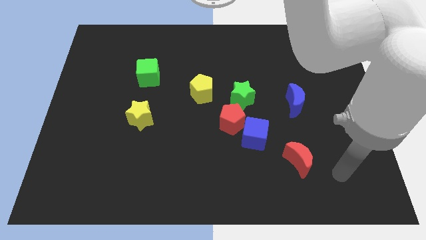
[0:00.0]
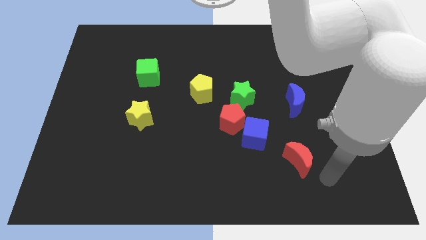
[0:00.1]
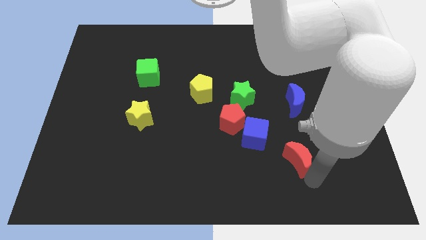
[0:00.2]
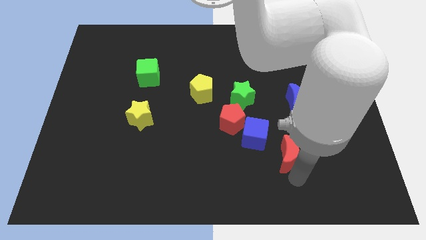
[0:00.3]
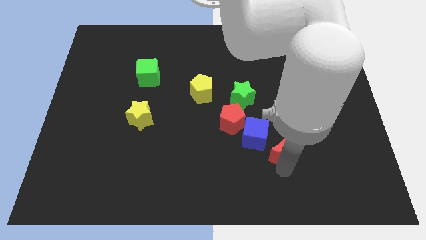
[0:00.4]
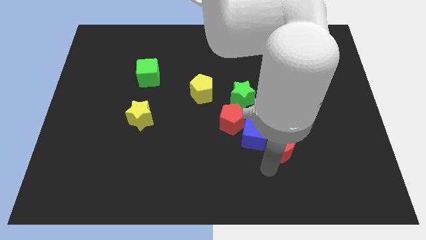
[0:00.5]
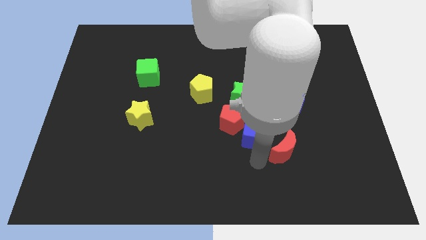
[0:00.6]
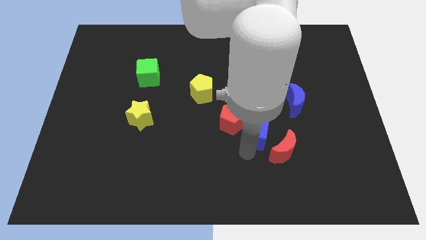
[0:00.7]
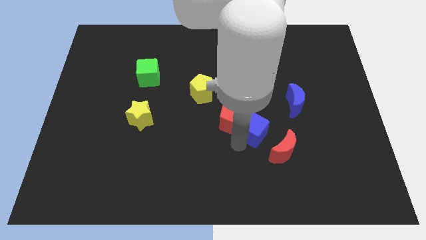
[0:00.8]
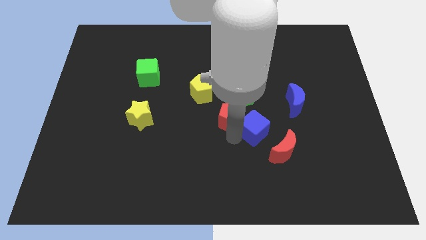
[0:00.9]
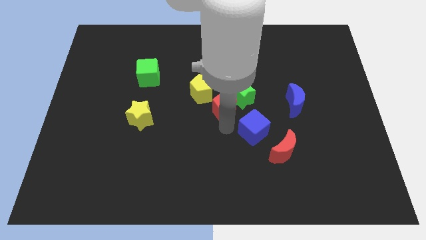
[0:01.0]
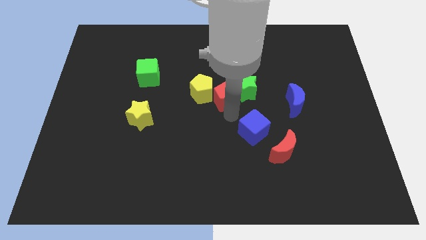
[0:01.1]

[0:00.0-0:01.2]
move the blue cube away from the red pentagon

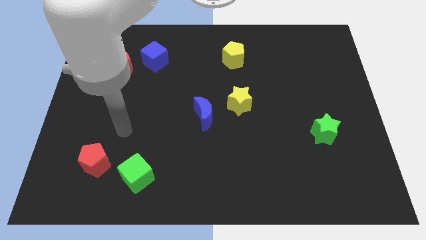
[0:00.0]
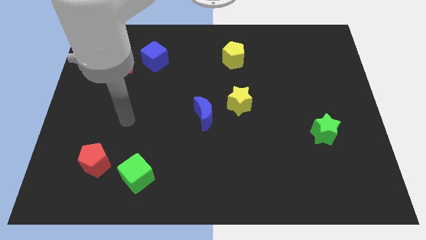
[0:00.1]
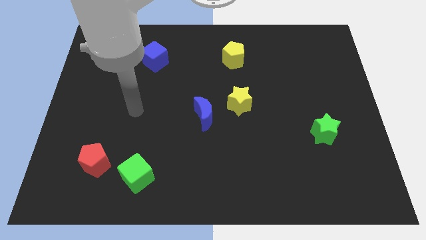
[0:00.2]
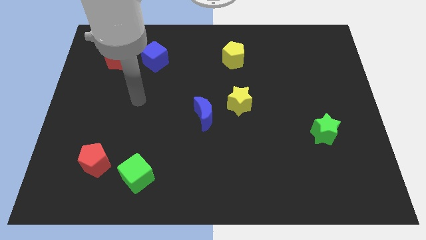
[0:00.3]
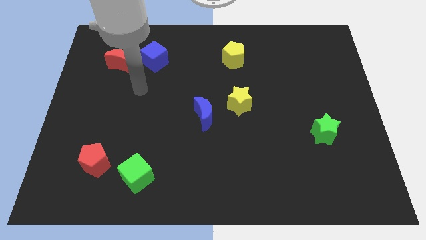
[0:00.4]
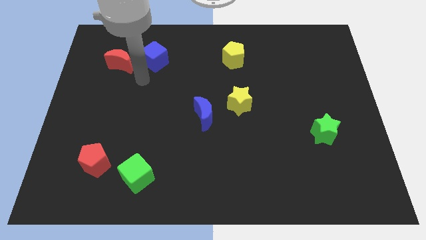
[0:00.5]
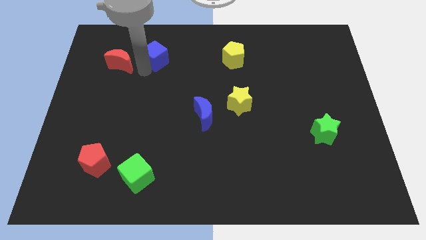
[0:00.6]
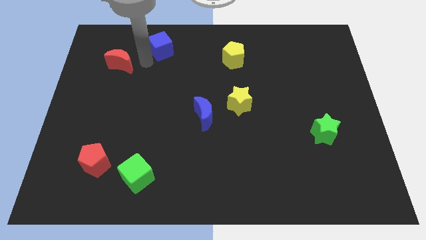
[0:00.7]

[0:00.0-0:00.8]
pull the red moon apart from the blue cube

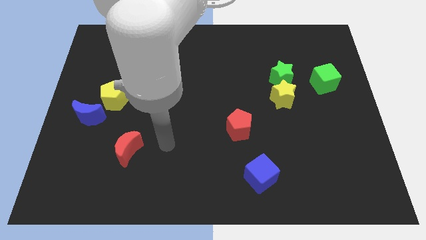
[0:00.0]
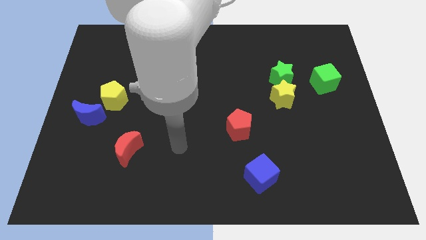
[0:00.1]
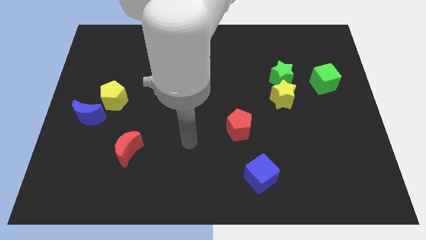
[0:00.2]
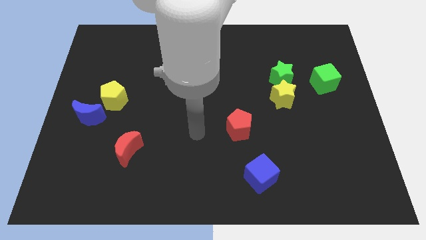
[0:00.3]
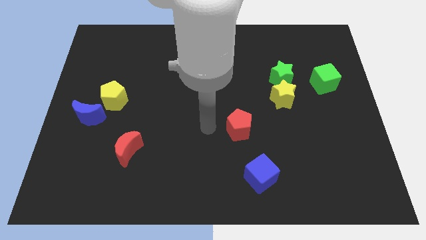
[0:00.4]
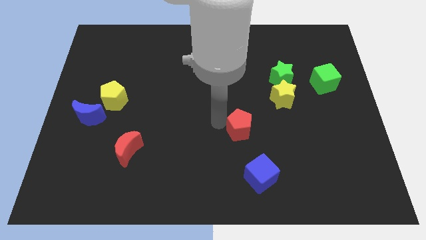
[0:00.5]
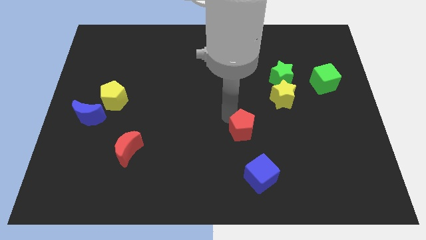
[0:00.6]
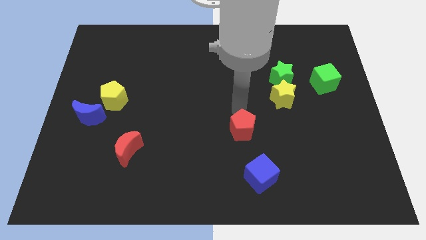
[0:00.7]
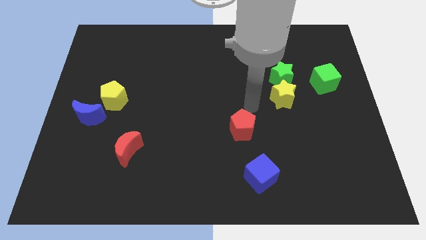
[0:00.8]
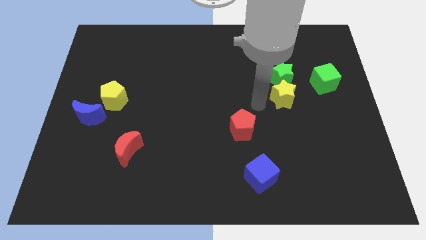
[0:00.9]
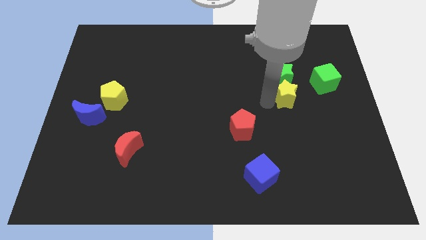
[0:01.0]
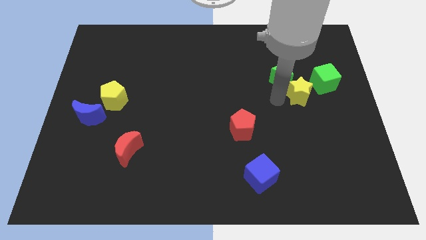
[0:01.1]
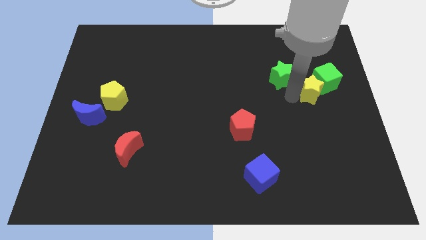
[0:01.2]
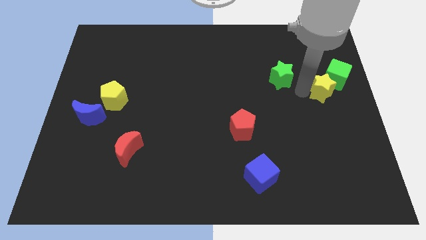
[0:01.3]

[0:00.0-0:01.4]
pull the green star apart from the yellow star

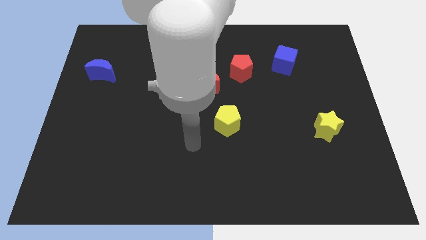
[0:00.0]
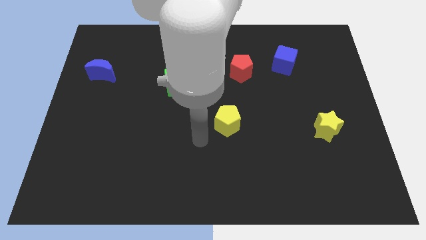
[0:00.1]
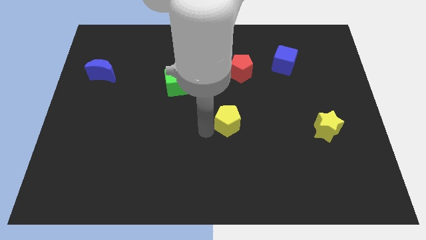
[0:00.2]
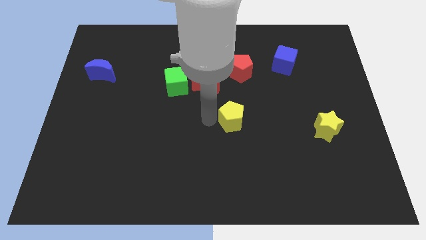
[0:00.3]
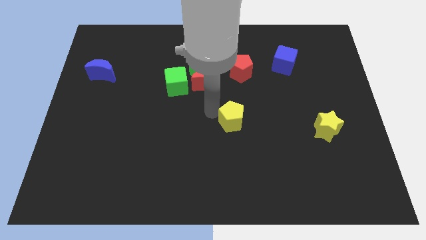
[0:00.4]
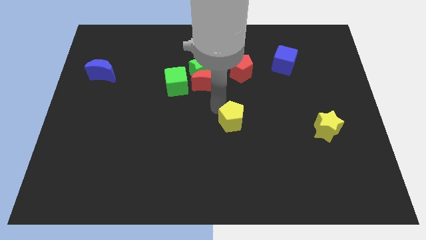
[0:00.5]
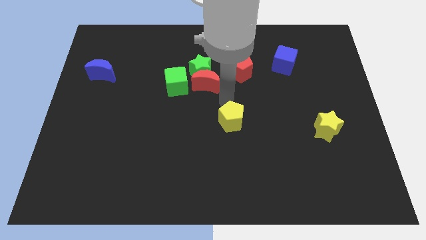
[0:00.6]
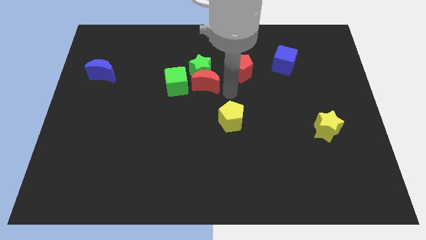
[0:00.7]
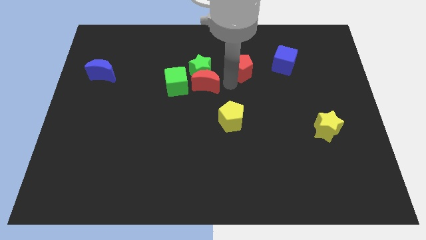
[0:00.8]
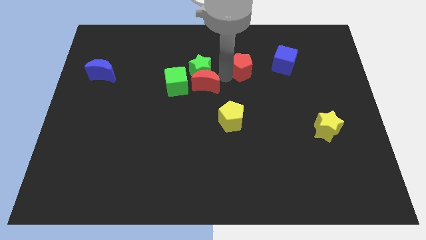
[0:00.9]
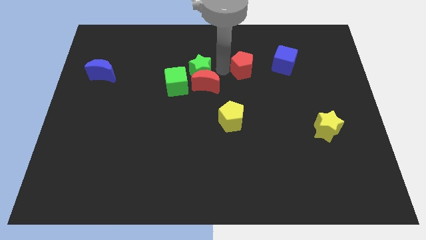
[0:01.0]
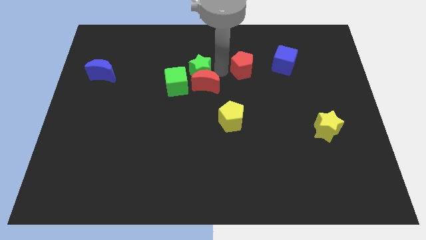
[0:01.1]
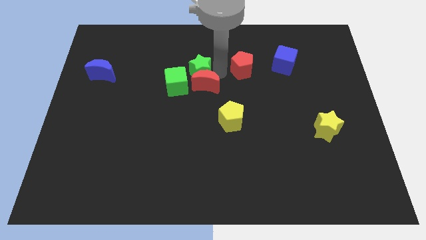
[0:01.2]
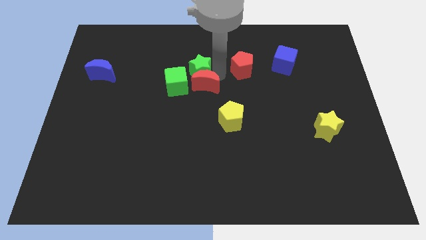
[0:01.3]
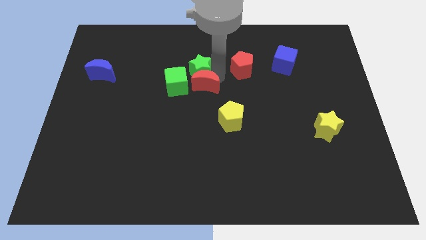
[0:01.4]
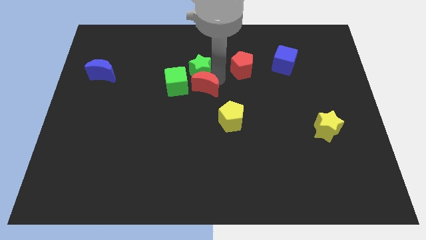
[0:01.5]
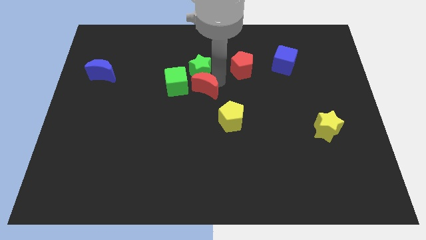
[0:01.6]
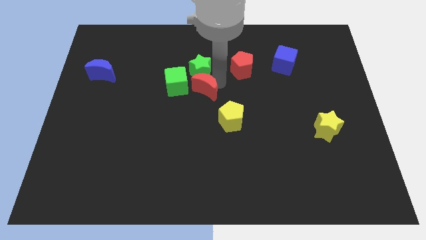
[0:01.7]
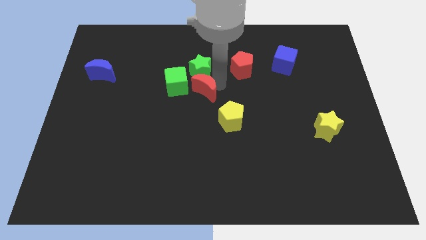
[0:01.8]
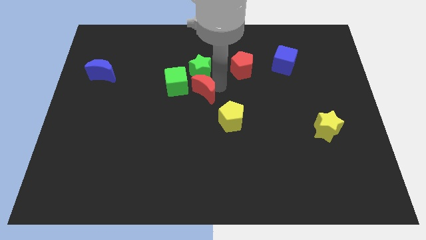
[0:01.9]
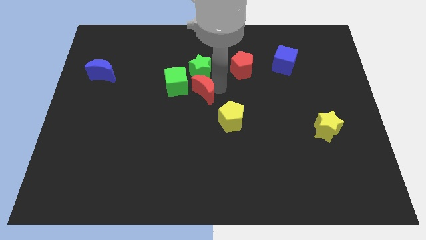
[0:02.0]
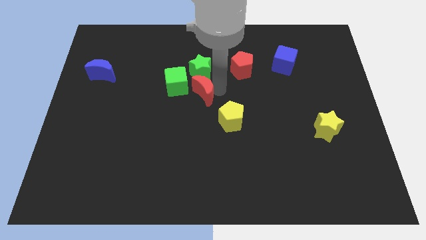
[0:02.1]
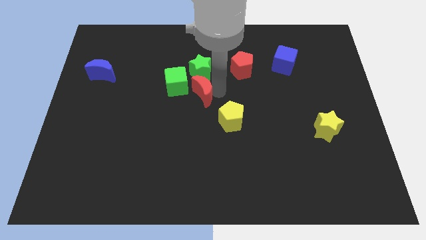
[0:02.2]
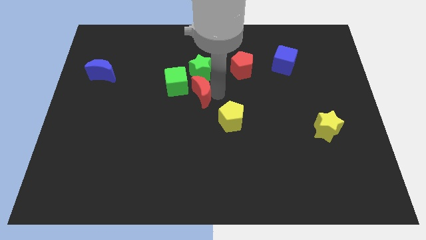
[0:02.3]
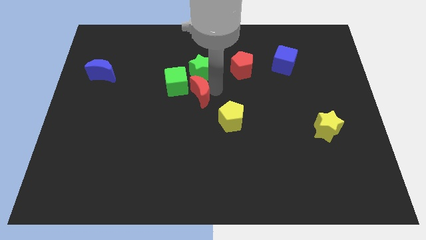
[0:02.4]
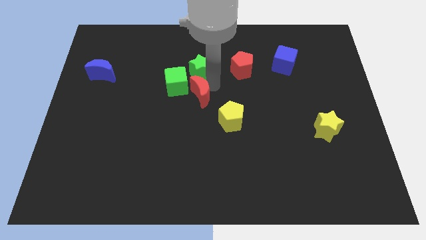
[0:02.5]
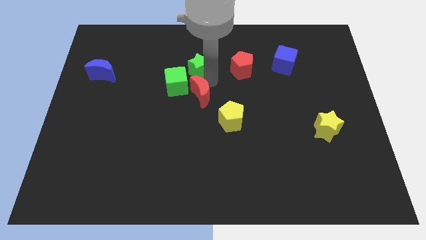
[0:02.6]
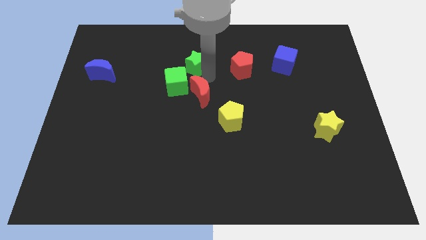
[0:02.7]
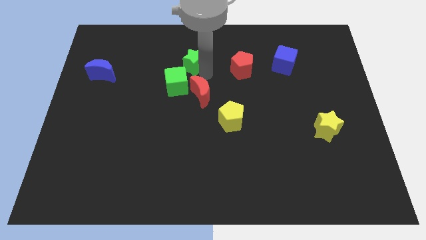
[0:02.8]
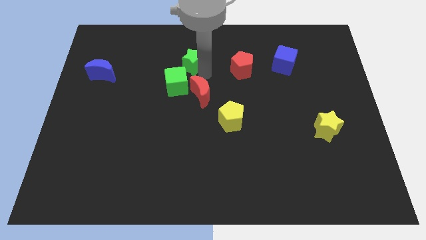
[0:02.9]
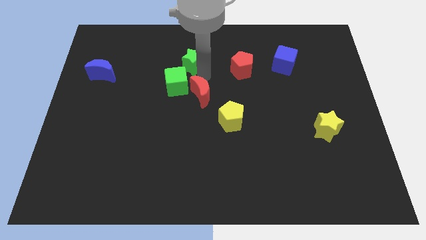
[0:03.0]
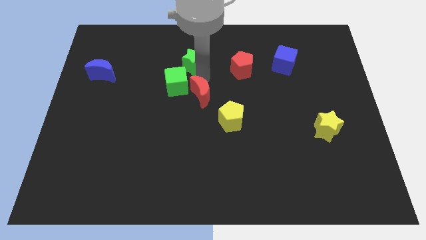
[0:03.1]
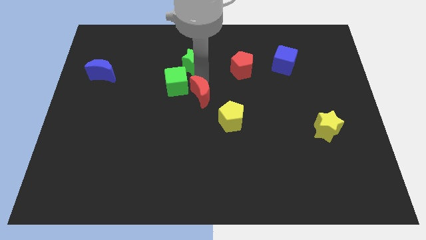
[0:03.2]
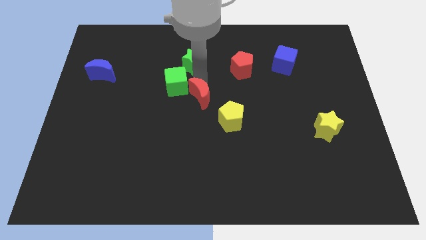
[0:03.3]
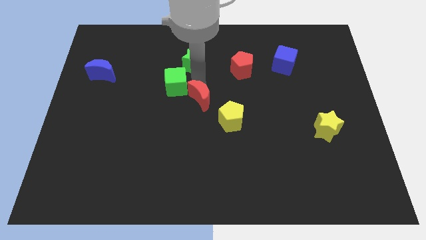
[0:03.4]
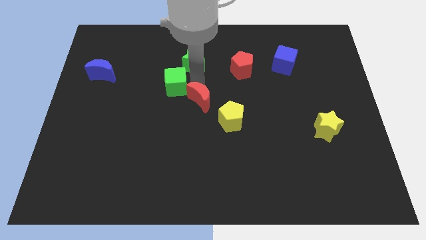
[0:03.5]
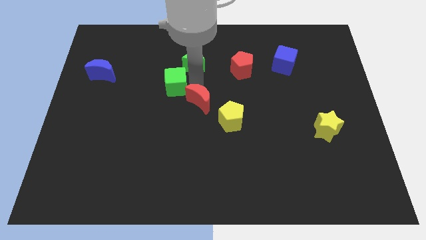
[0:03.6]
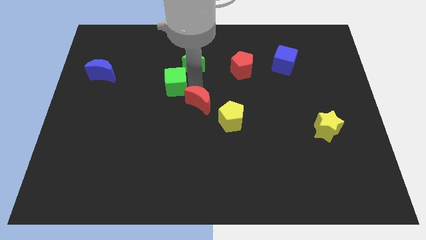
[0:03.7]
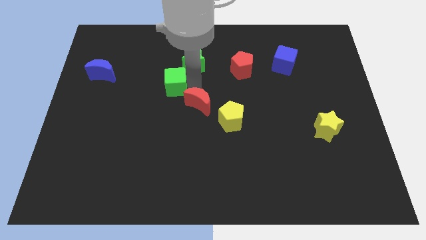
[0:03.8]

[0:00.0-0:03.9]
pull the red moon apart from the green star, green cube, and red pentagon

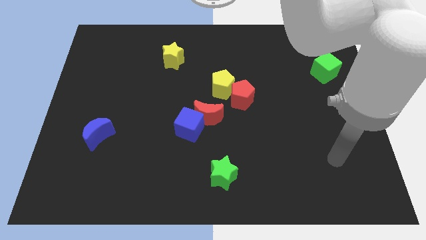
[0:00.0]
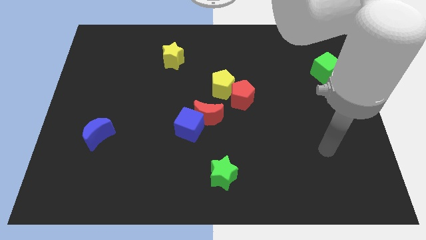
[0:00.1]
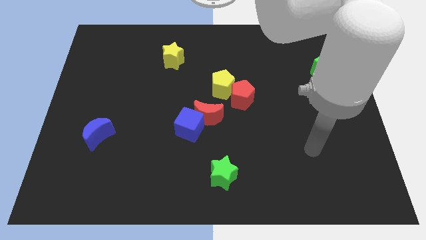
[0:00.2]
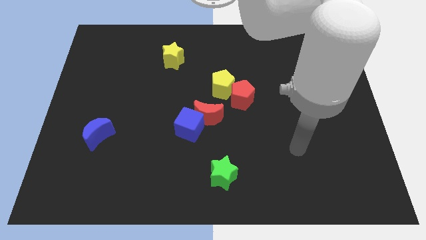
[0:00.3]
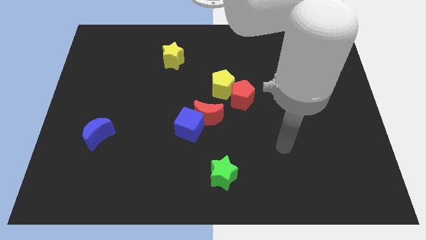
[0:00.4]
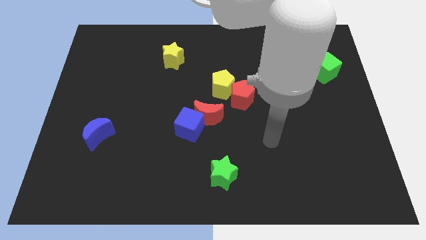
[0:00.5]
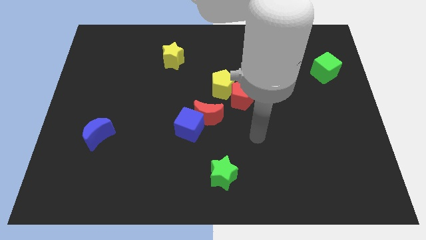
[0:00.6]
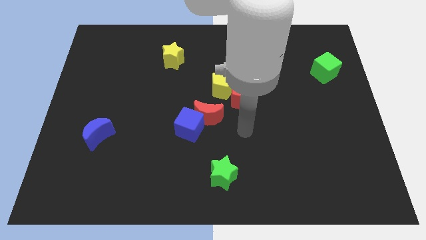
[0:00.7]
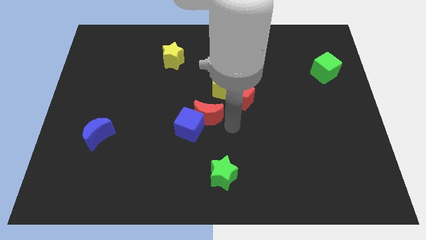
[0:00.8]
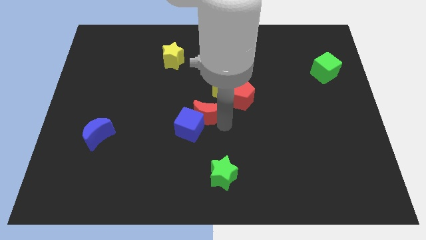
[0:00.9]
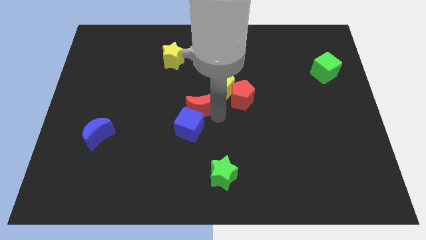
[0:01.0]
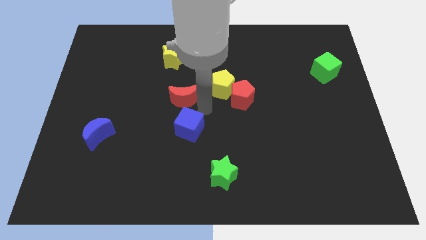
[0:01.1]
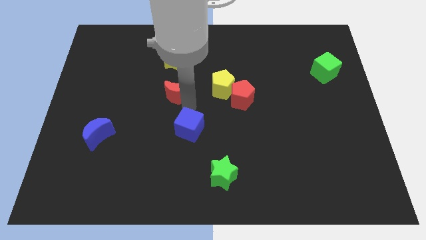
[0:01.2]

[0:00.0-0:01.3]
move the blue cube away from the red moon

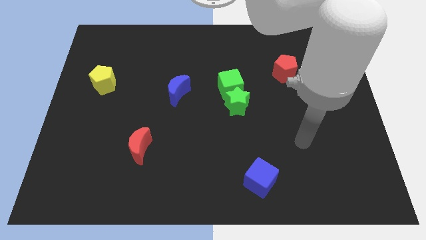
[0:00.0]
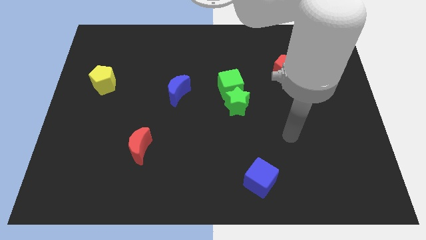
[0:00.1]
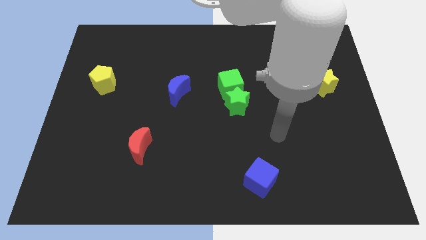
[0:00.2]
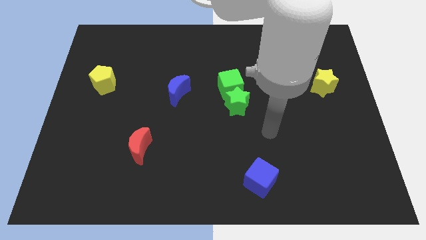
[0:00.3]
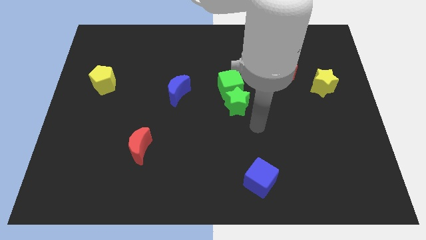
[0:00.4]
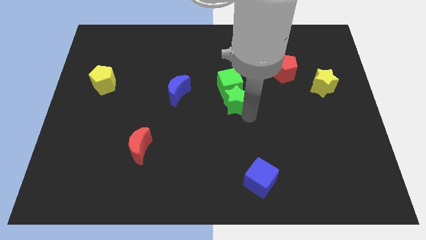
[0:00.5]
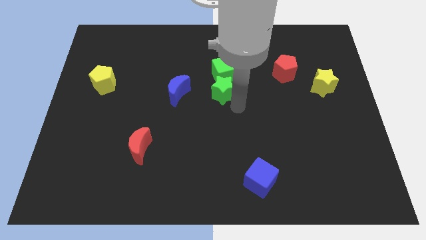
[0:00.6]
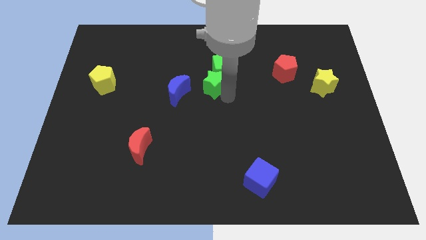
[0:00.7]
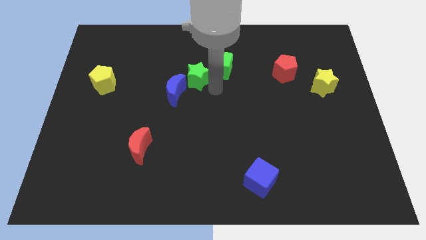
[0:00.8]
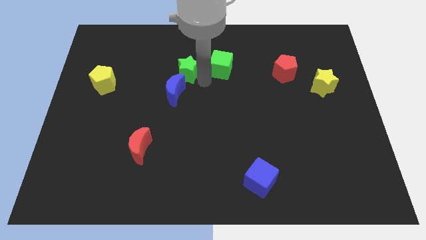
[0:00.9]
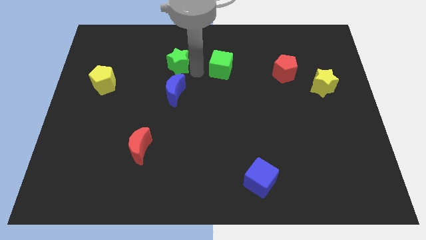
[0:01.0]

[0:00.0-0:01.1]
pull the green cube apart from the green star
